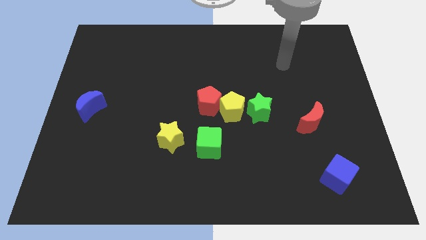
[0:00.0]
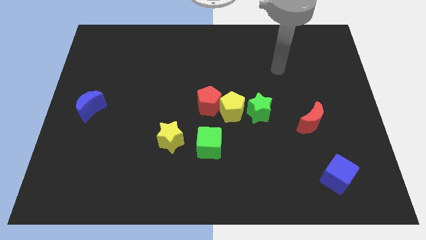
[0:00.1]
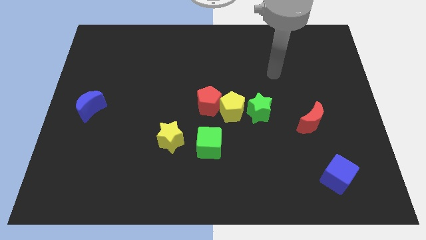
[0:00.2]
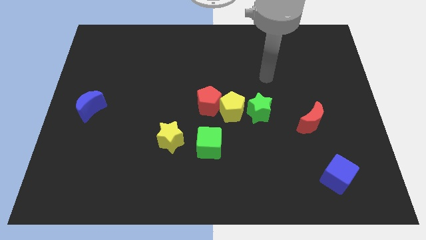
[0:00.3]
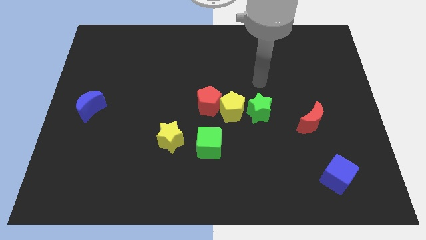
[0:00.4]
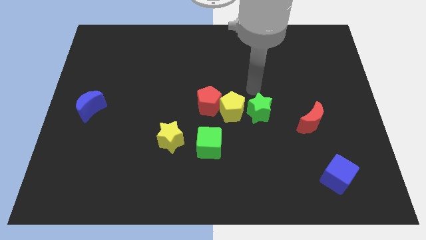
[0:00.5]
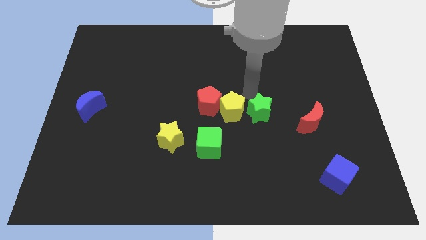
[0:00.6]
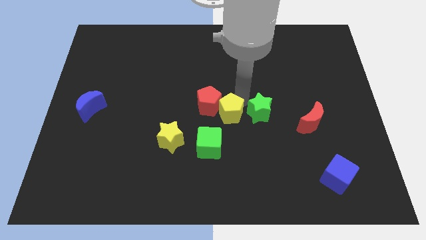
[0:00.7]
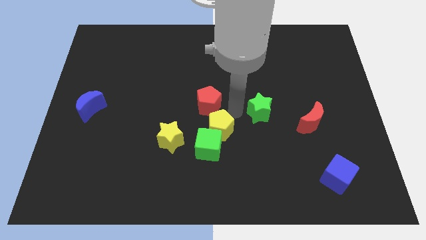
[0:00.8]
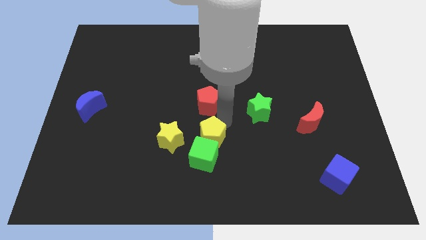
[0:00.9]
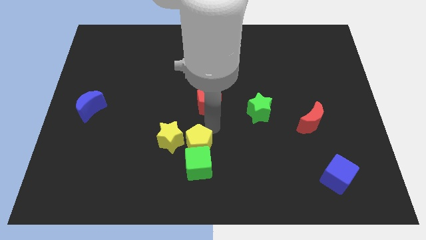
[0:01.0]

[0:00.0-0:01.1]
separate the red pentagon from the yellow pentagon

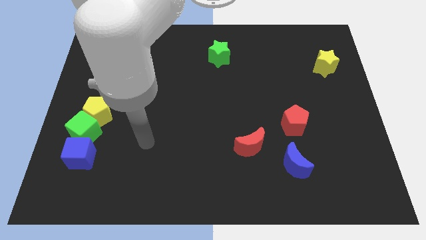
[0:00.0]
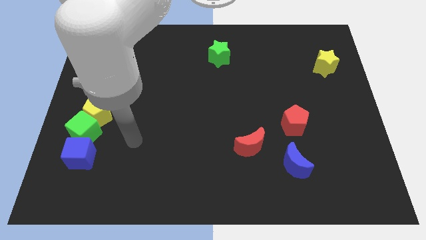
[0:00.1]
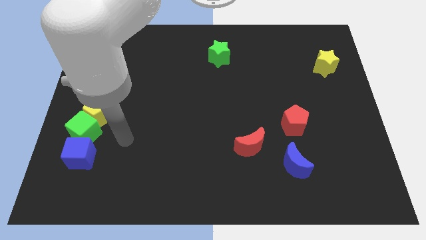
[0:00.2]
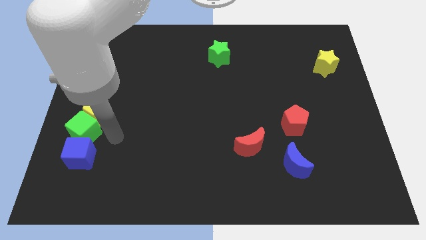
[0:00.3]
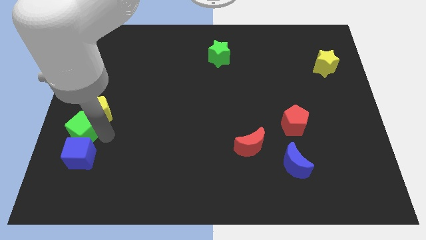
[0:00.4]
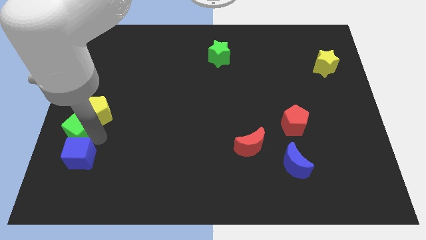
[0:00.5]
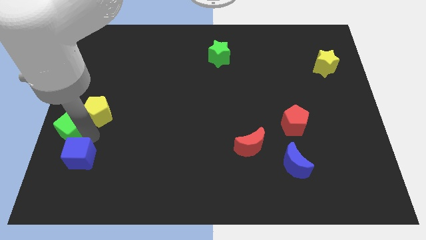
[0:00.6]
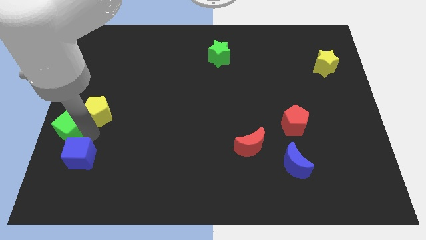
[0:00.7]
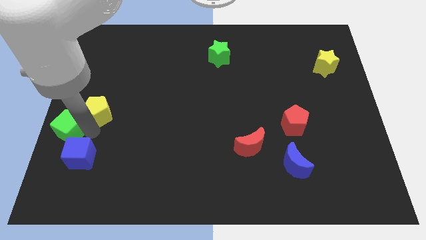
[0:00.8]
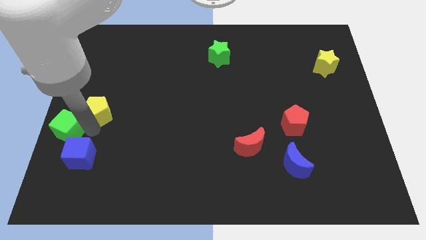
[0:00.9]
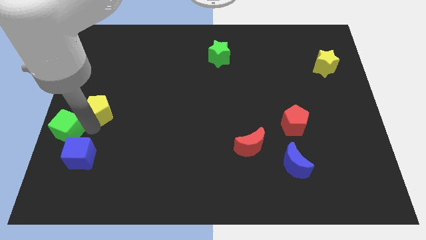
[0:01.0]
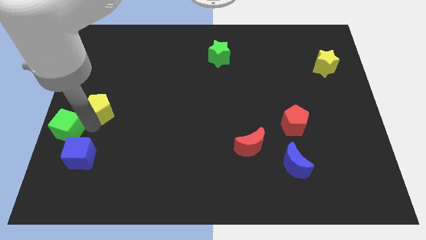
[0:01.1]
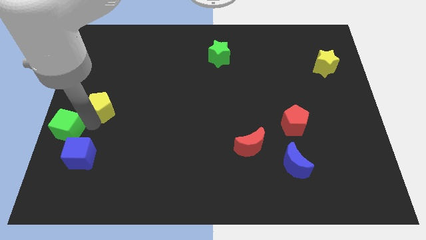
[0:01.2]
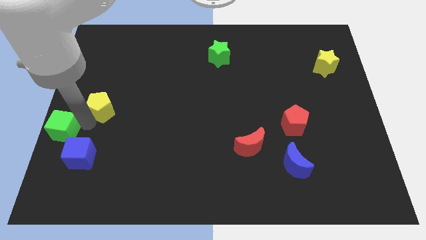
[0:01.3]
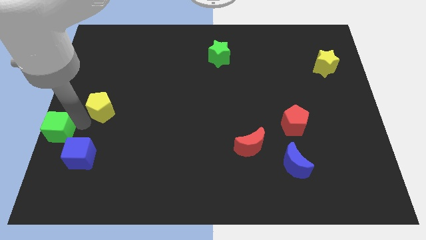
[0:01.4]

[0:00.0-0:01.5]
move the yellow pentagon away from the green cube

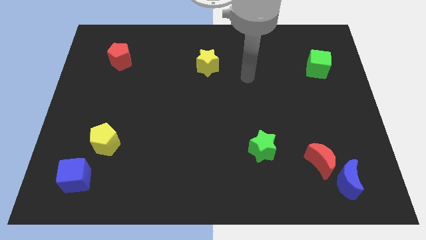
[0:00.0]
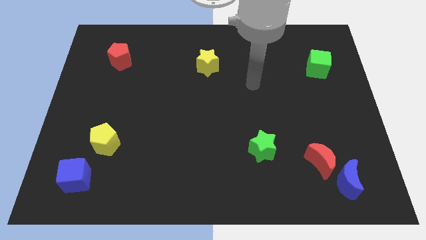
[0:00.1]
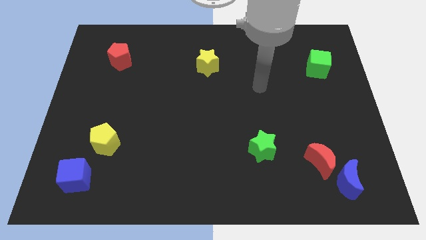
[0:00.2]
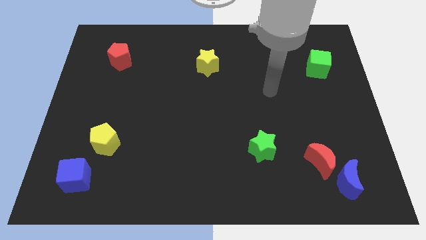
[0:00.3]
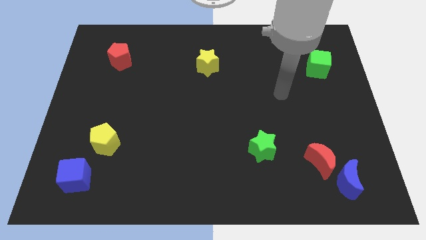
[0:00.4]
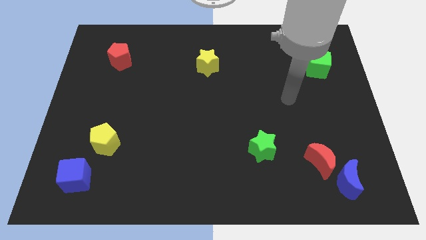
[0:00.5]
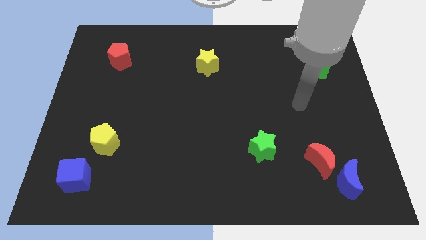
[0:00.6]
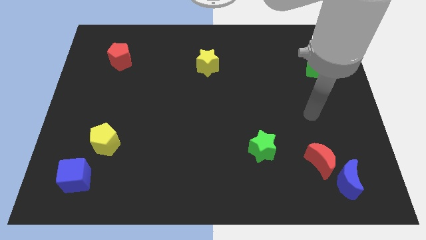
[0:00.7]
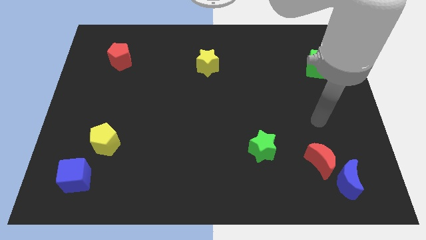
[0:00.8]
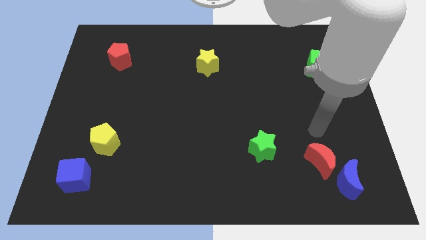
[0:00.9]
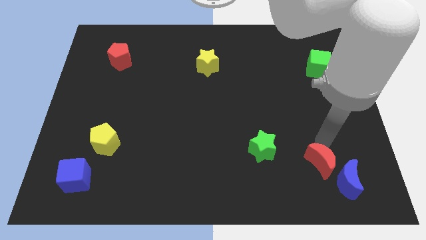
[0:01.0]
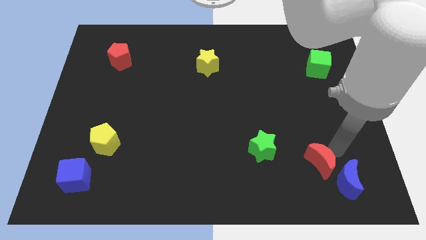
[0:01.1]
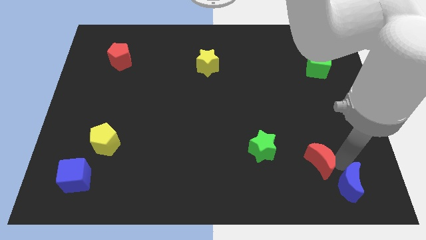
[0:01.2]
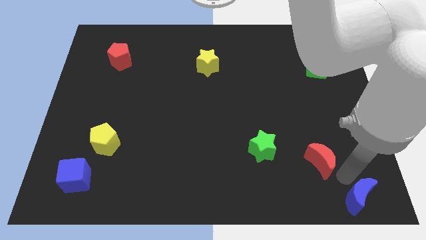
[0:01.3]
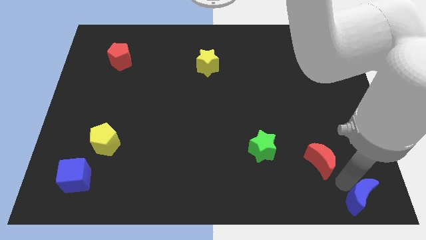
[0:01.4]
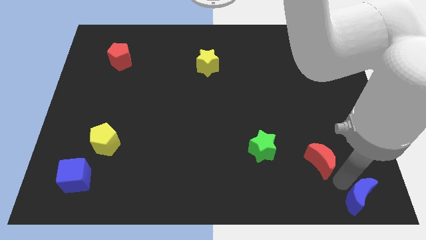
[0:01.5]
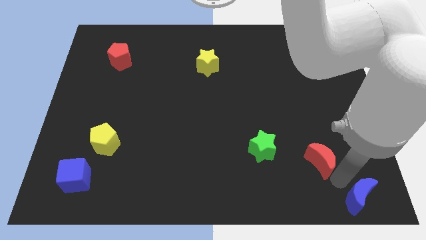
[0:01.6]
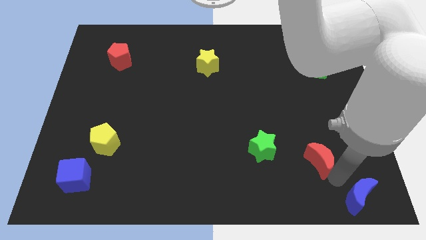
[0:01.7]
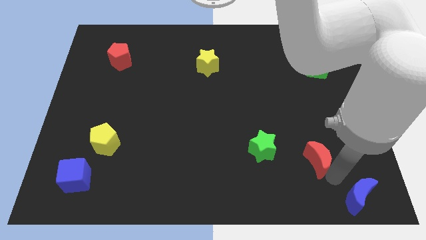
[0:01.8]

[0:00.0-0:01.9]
pull the red moon apart from the blue moon

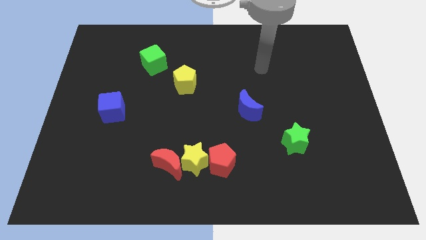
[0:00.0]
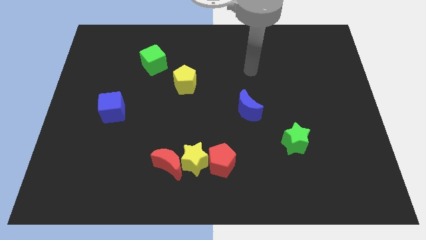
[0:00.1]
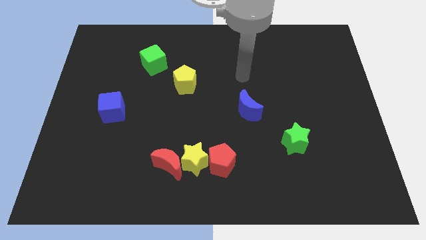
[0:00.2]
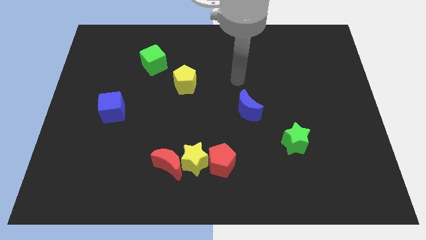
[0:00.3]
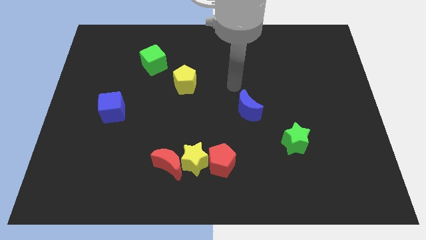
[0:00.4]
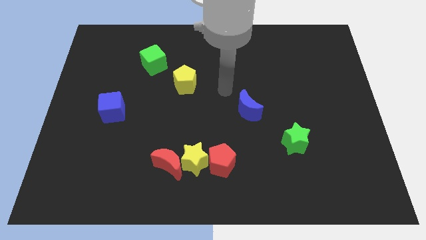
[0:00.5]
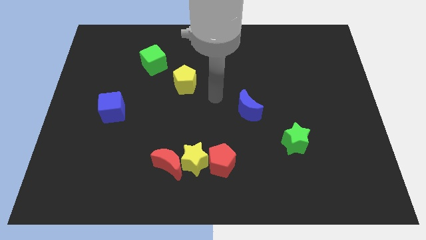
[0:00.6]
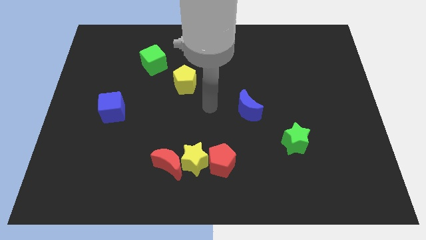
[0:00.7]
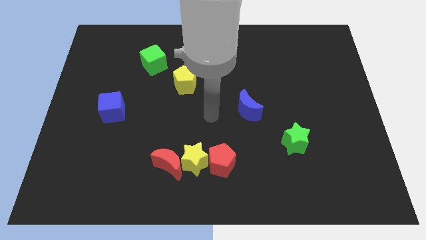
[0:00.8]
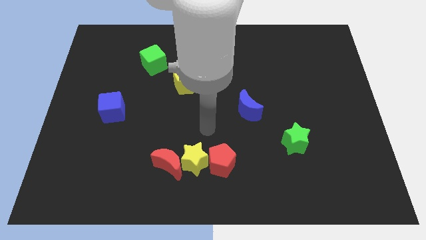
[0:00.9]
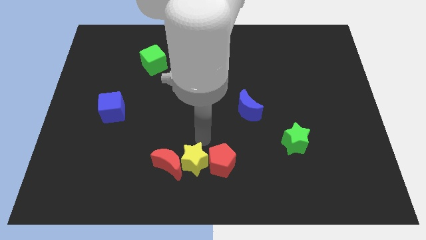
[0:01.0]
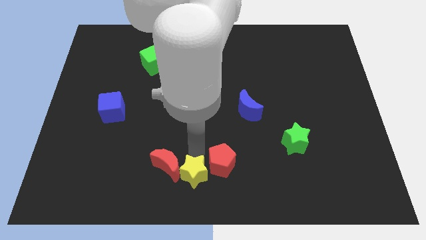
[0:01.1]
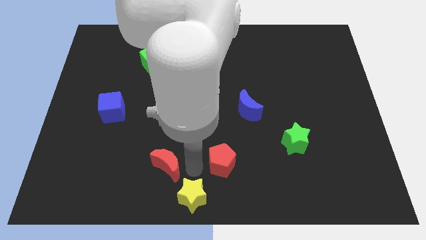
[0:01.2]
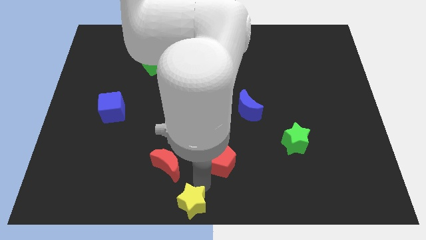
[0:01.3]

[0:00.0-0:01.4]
move the red pentagon away from the yellow star

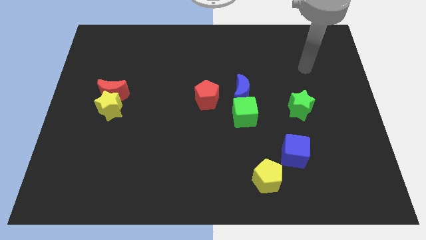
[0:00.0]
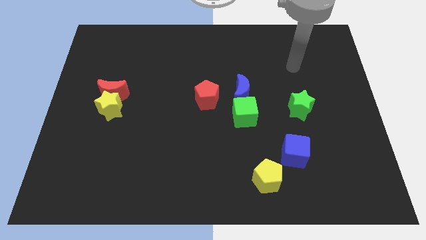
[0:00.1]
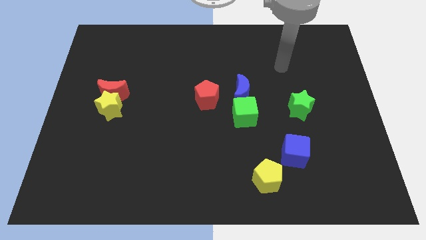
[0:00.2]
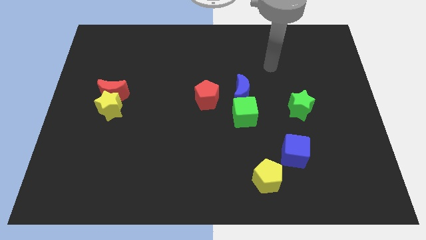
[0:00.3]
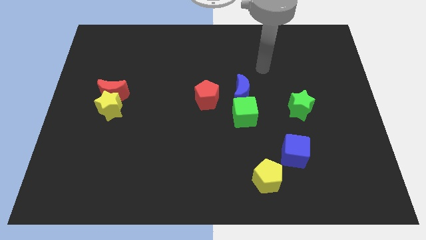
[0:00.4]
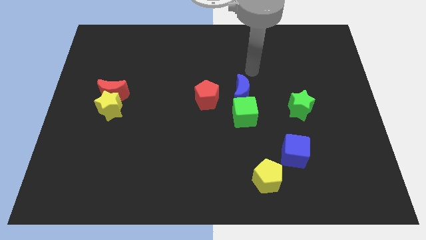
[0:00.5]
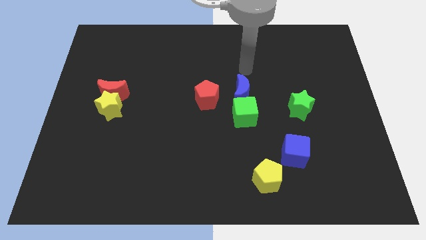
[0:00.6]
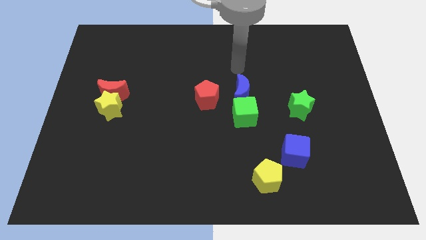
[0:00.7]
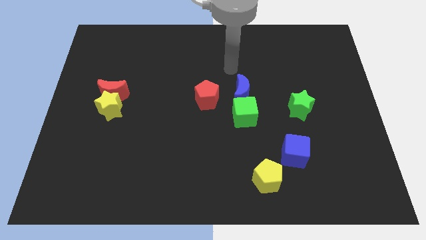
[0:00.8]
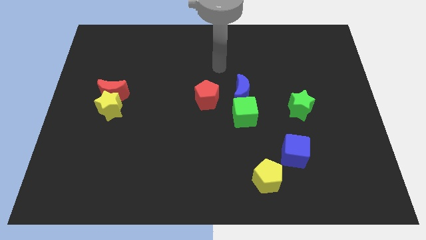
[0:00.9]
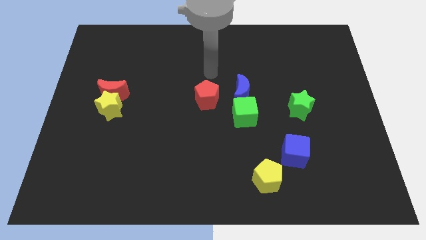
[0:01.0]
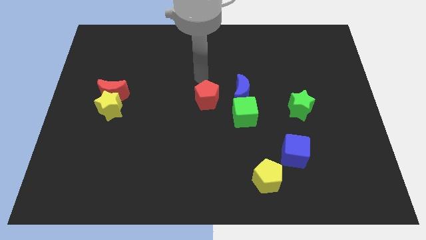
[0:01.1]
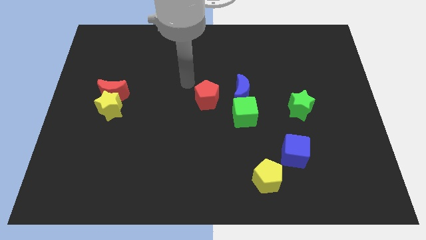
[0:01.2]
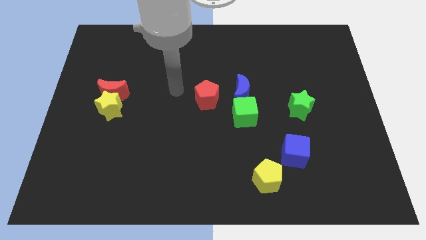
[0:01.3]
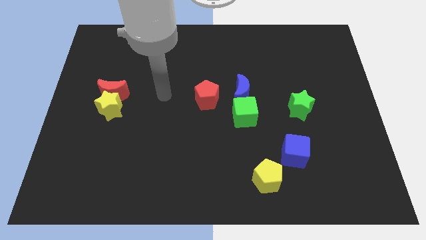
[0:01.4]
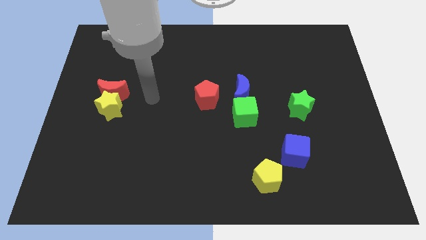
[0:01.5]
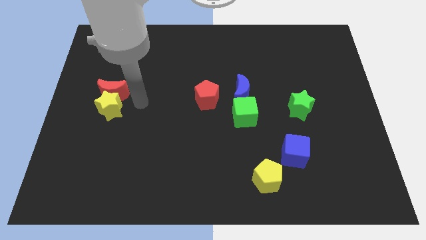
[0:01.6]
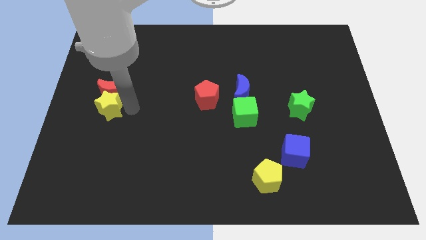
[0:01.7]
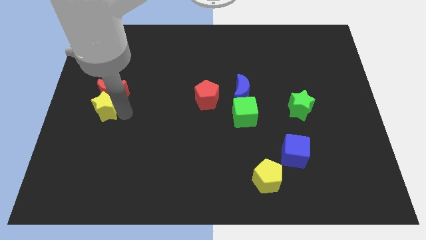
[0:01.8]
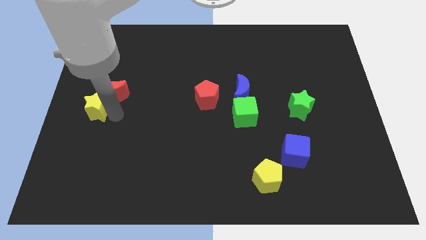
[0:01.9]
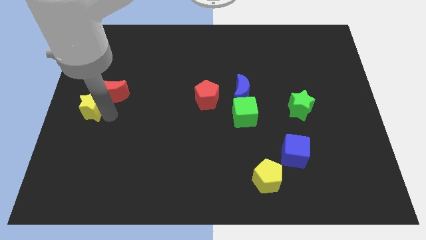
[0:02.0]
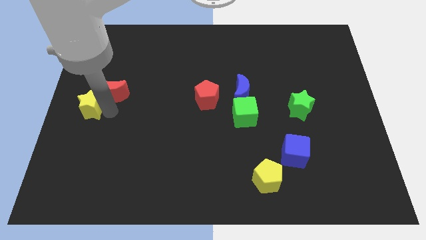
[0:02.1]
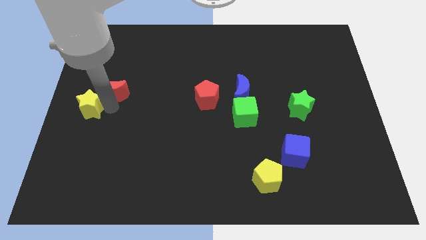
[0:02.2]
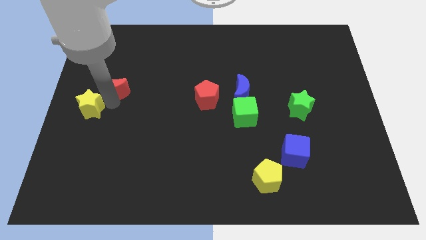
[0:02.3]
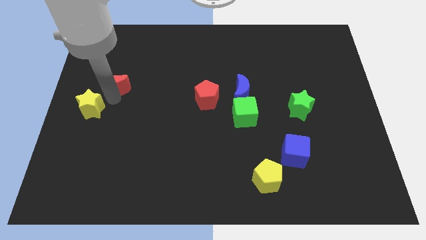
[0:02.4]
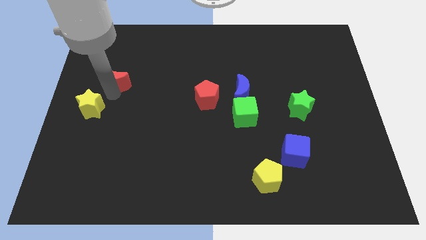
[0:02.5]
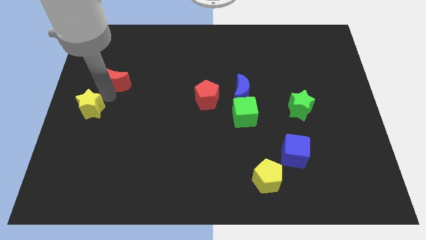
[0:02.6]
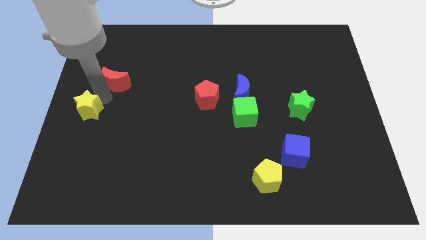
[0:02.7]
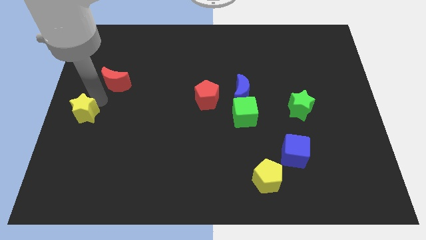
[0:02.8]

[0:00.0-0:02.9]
separate the red moon from the yellow star

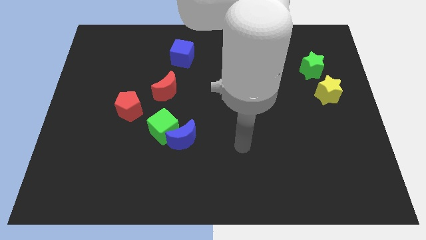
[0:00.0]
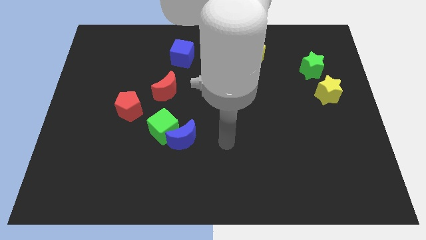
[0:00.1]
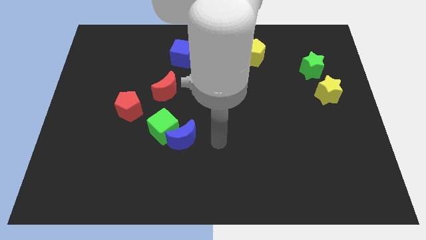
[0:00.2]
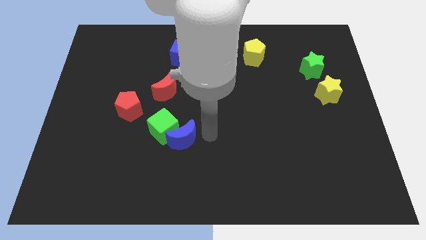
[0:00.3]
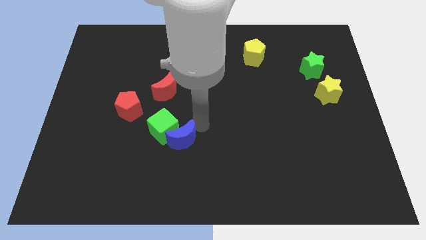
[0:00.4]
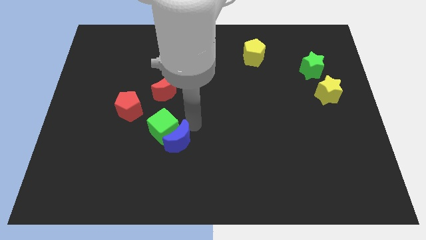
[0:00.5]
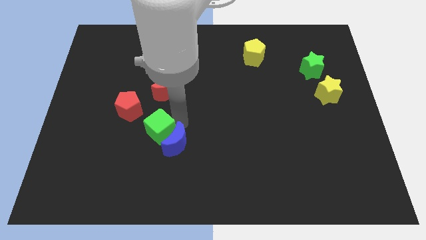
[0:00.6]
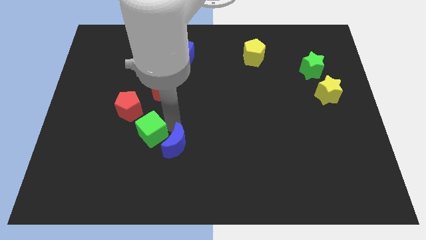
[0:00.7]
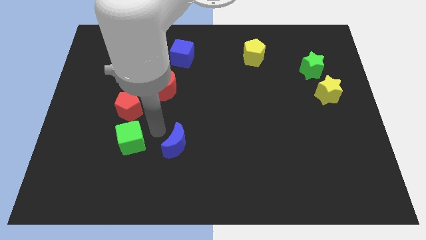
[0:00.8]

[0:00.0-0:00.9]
pull the blue moon apart from the green cube
